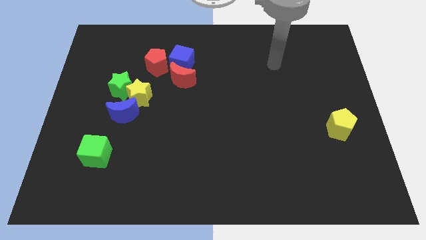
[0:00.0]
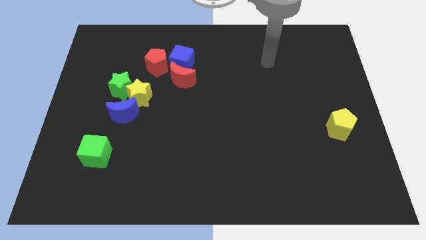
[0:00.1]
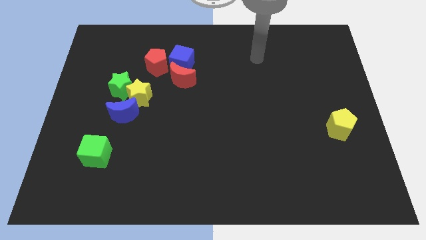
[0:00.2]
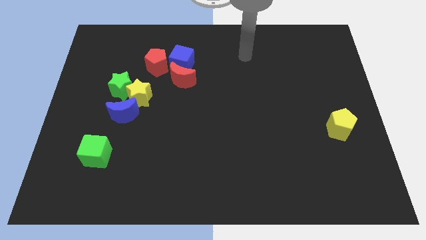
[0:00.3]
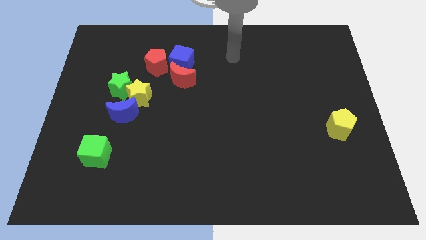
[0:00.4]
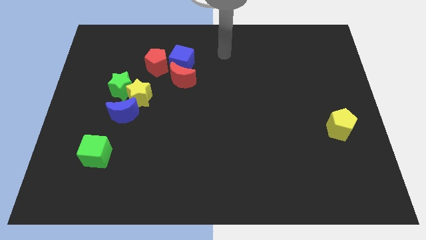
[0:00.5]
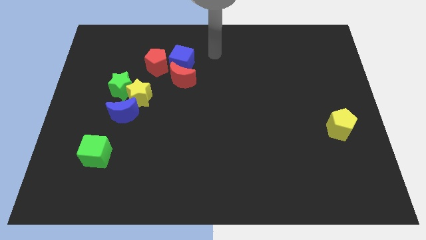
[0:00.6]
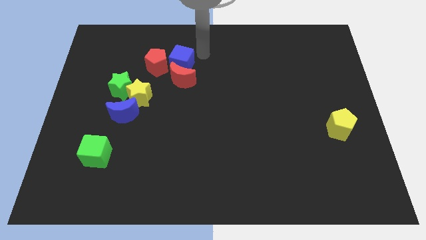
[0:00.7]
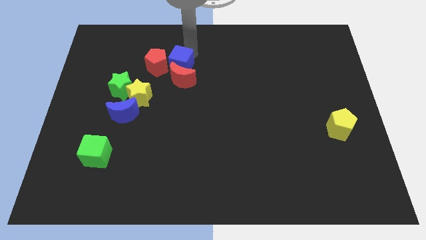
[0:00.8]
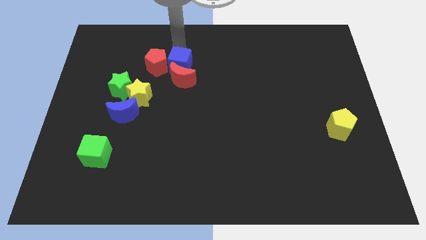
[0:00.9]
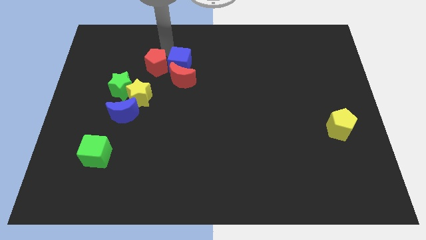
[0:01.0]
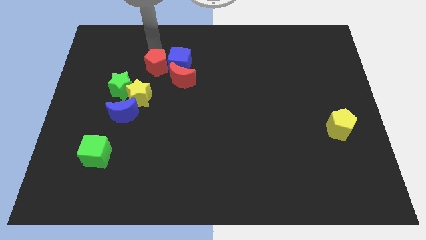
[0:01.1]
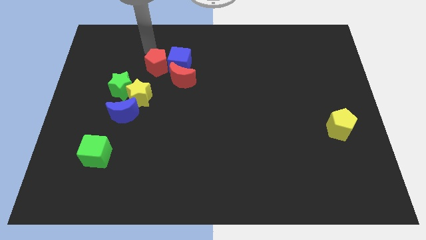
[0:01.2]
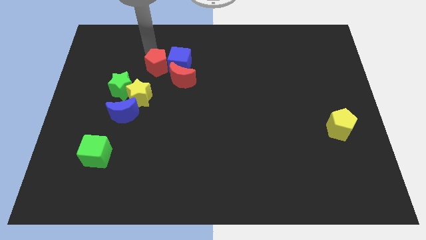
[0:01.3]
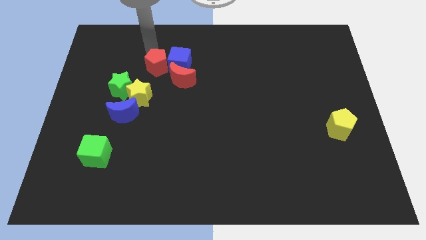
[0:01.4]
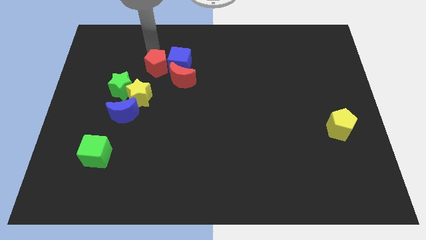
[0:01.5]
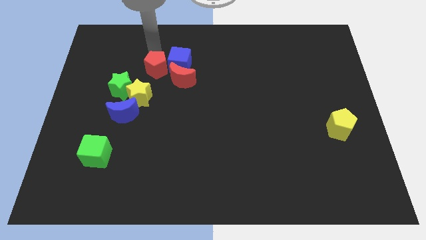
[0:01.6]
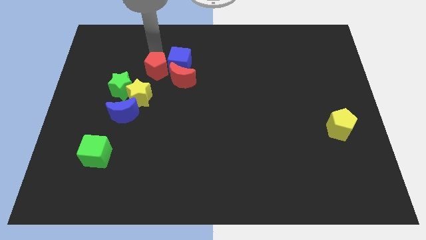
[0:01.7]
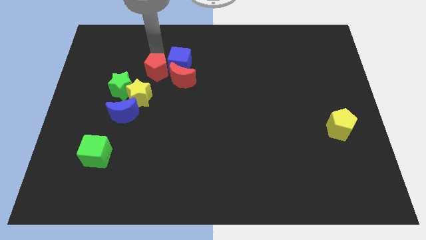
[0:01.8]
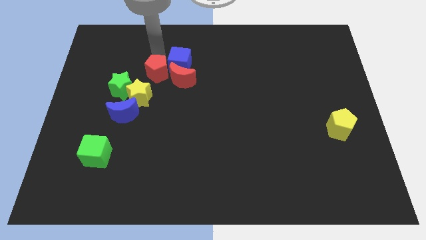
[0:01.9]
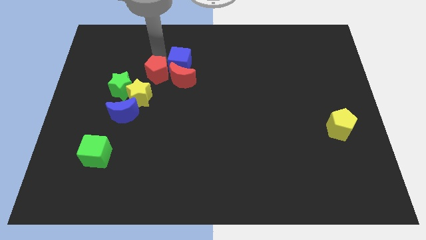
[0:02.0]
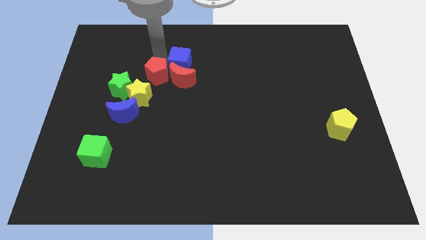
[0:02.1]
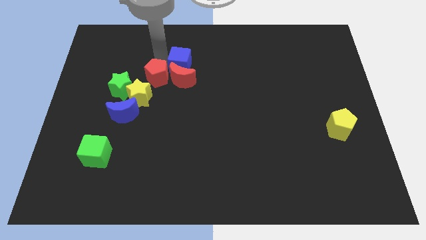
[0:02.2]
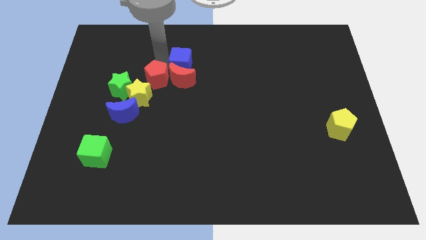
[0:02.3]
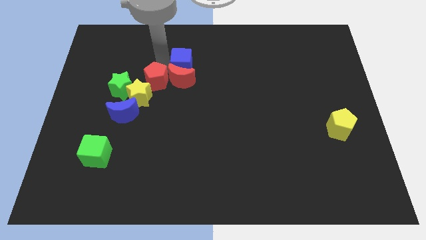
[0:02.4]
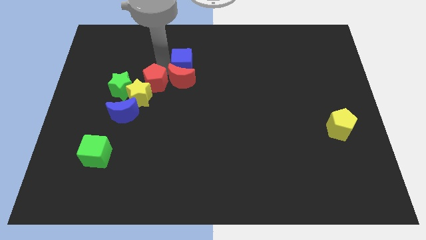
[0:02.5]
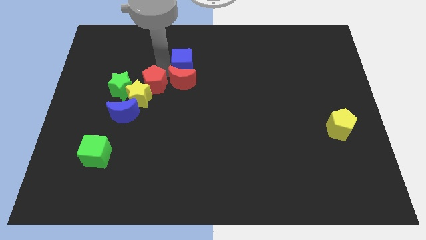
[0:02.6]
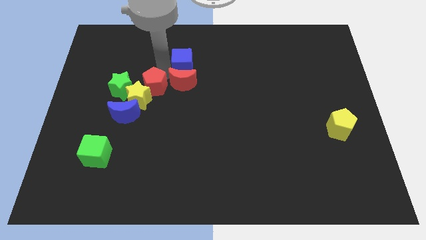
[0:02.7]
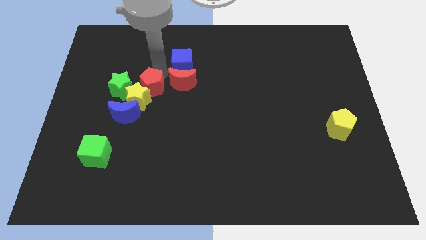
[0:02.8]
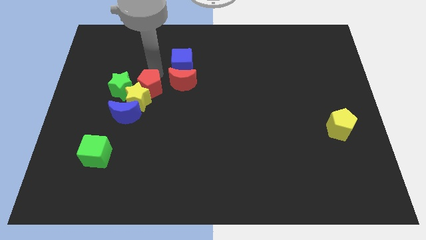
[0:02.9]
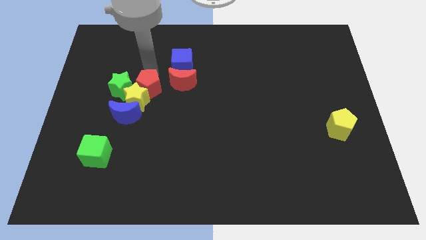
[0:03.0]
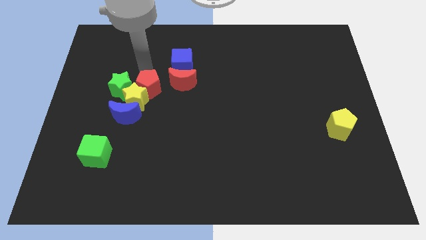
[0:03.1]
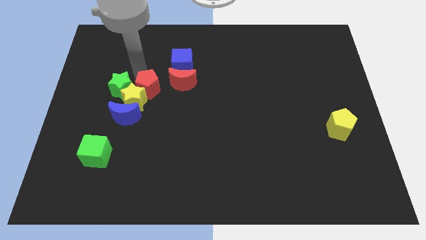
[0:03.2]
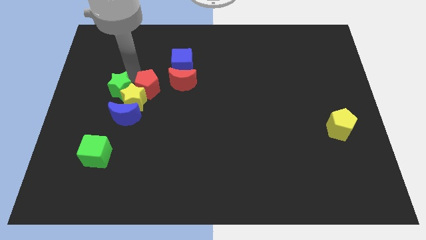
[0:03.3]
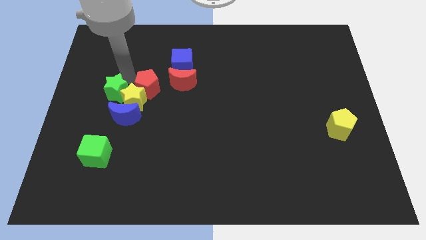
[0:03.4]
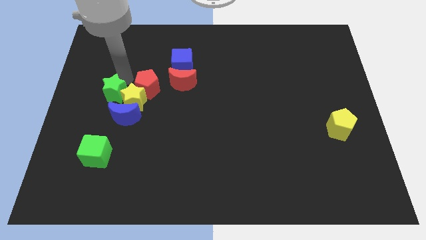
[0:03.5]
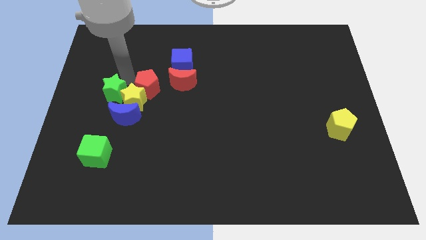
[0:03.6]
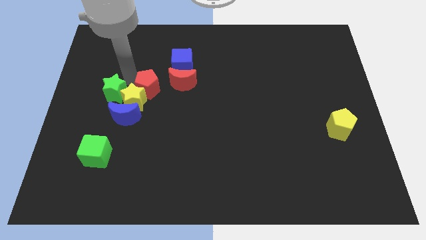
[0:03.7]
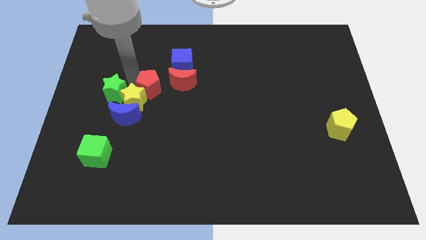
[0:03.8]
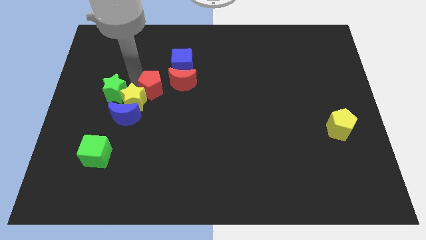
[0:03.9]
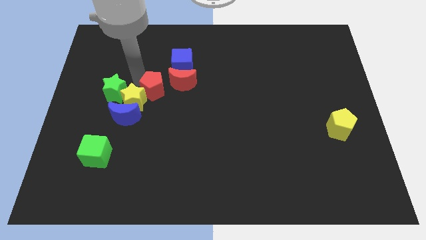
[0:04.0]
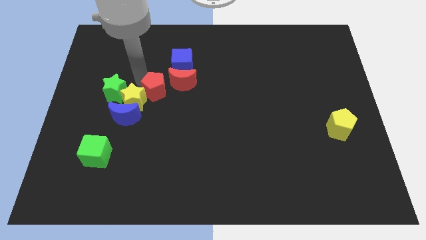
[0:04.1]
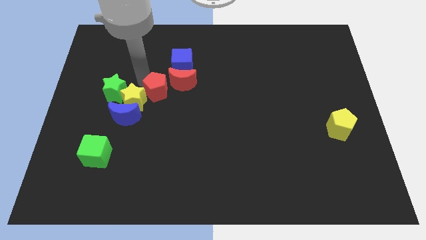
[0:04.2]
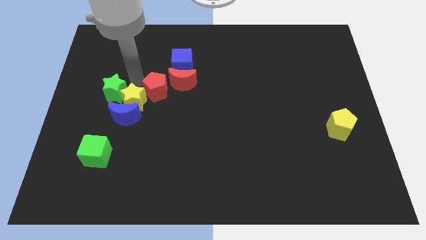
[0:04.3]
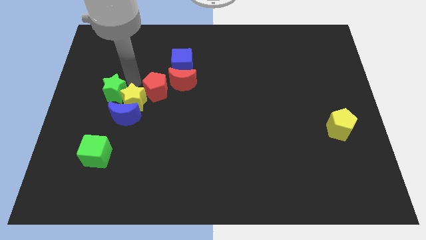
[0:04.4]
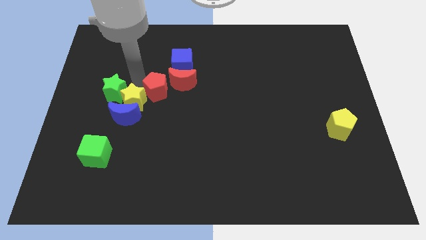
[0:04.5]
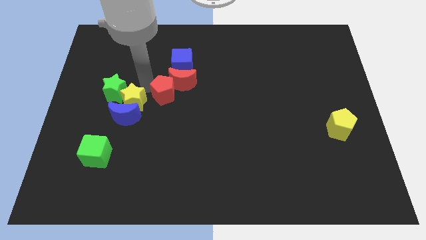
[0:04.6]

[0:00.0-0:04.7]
slide the red pentagon downwards and to the right a little bit

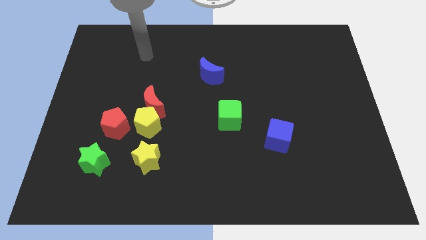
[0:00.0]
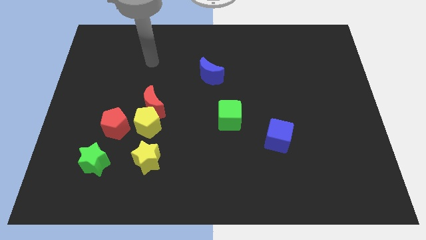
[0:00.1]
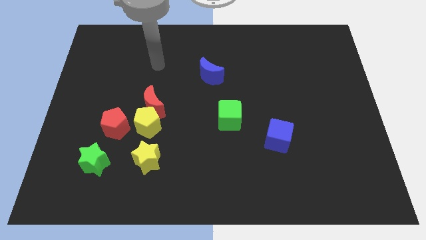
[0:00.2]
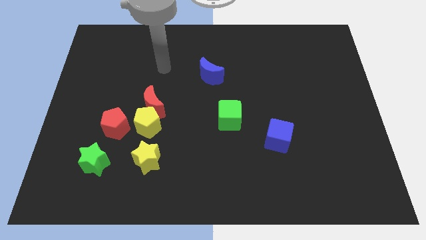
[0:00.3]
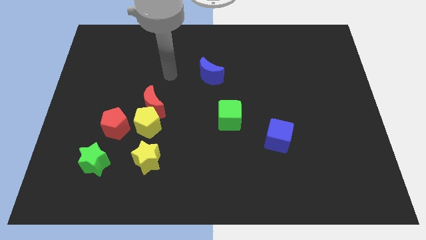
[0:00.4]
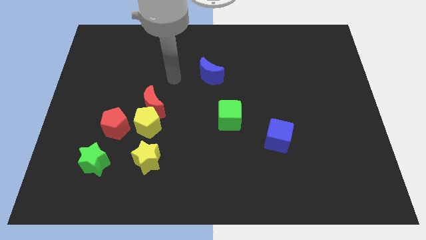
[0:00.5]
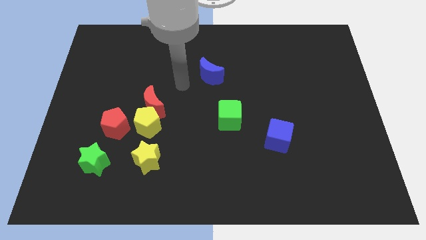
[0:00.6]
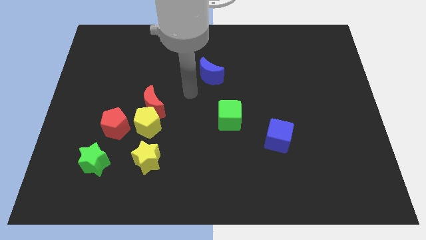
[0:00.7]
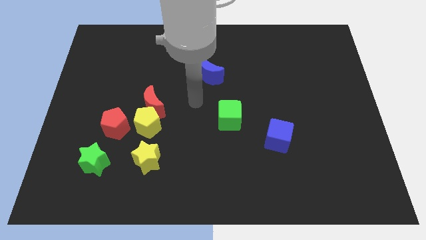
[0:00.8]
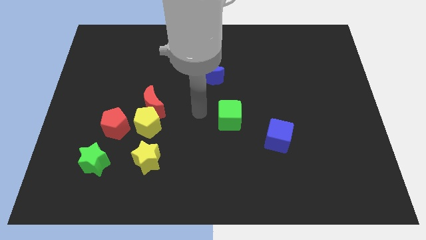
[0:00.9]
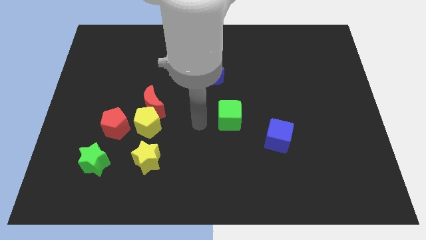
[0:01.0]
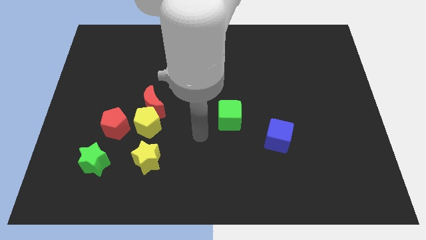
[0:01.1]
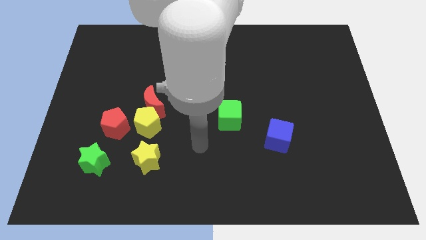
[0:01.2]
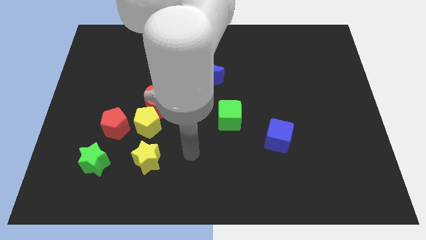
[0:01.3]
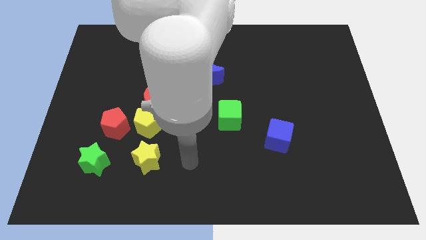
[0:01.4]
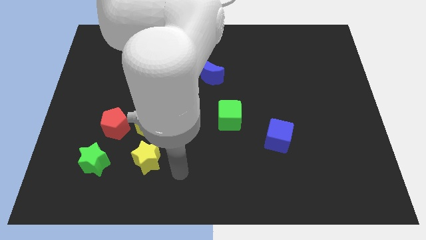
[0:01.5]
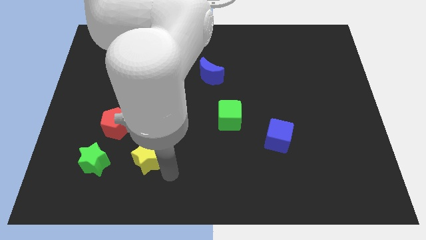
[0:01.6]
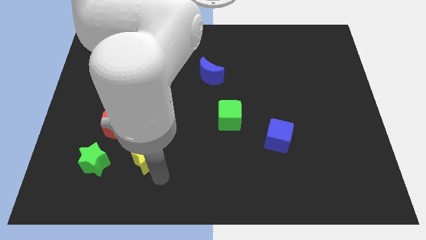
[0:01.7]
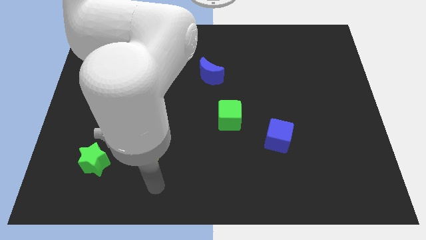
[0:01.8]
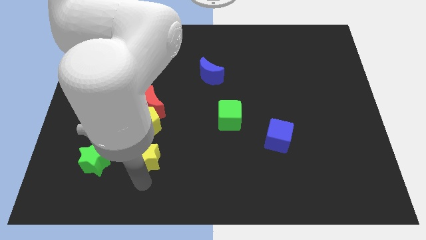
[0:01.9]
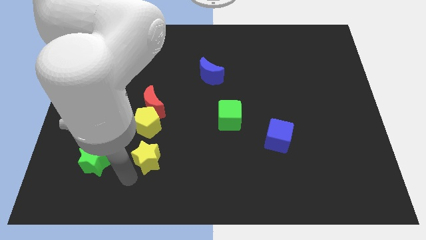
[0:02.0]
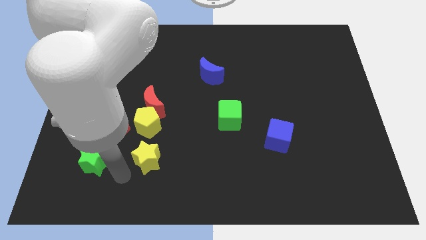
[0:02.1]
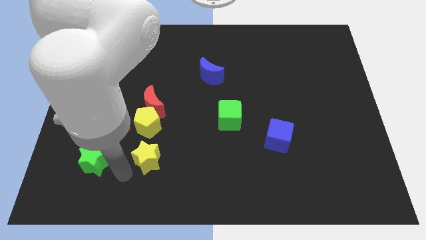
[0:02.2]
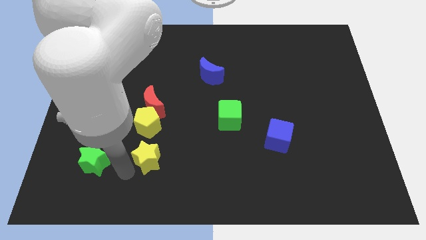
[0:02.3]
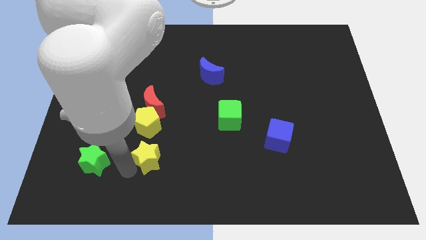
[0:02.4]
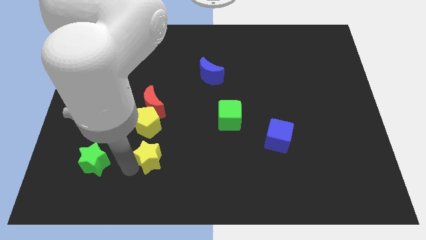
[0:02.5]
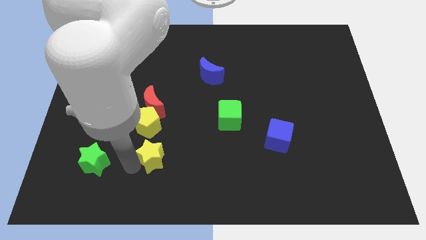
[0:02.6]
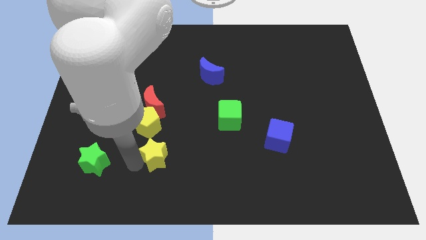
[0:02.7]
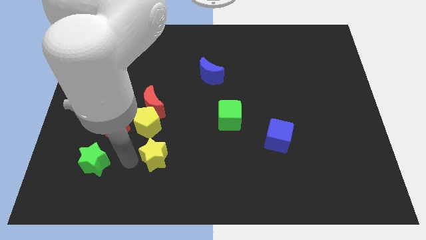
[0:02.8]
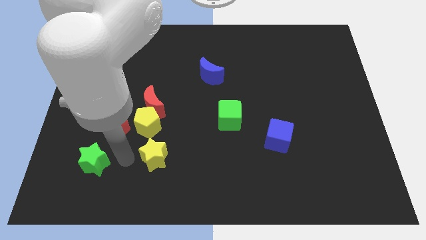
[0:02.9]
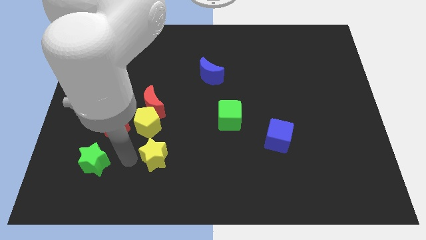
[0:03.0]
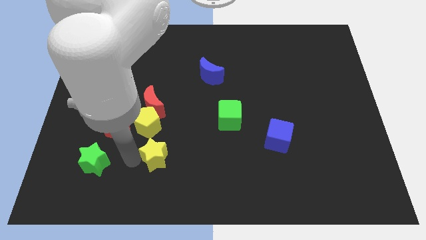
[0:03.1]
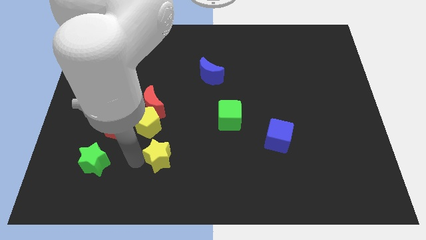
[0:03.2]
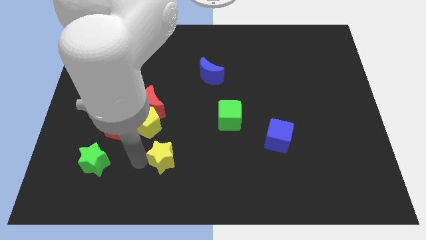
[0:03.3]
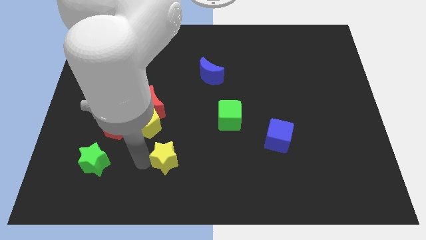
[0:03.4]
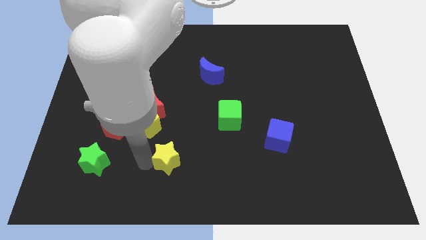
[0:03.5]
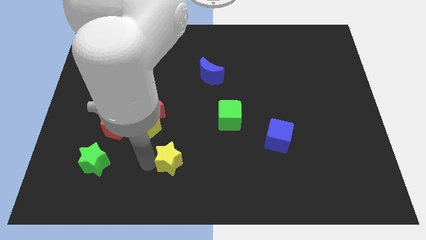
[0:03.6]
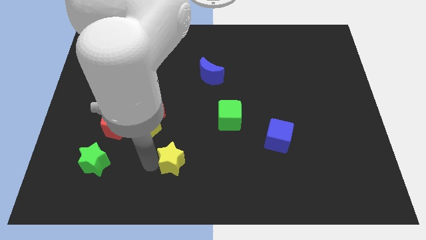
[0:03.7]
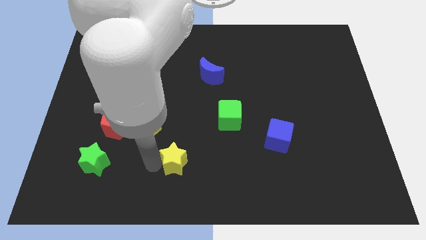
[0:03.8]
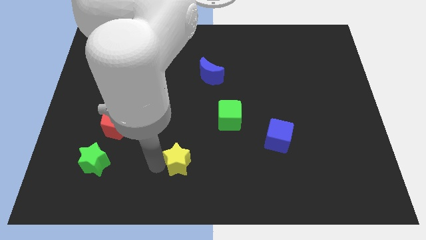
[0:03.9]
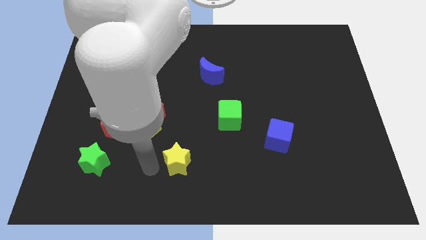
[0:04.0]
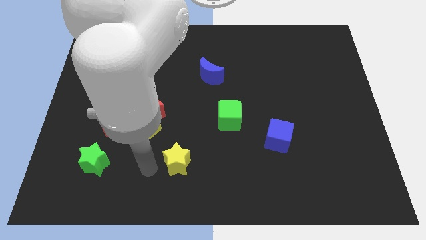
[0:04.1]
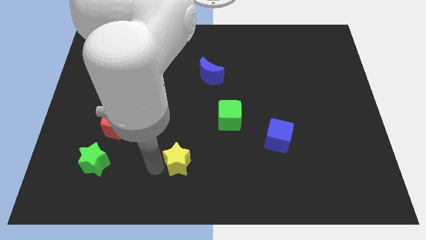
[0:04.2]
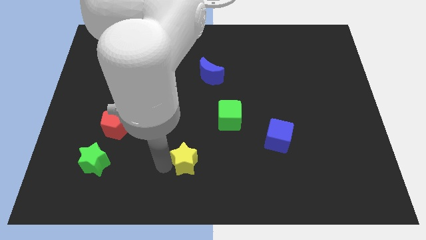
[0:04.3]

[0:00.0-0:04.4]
push the yellow star slightly to the right
